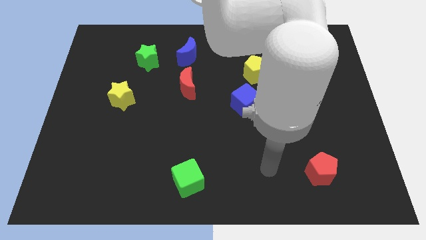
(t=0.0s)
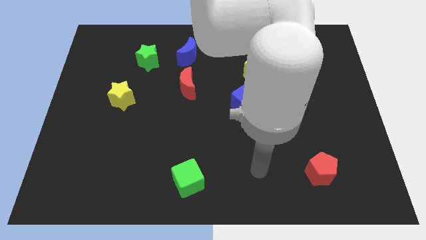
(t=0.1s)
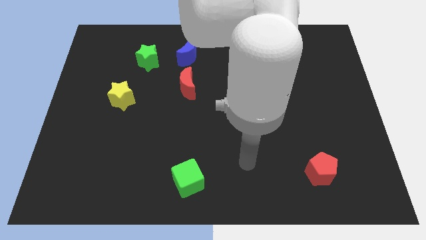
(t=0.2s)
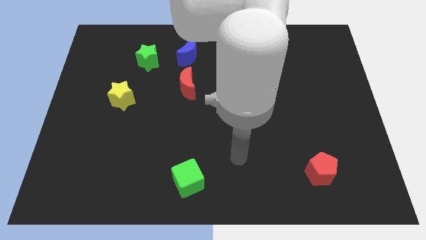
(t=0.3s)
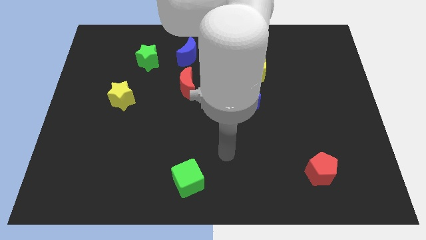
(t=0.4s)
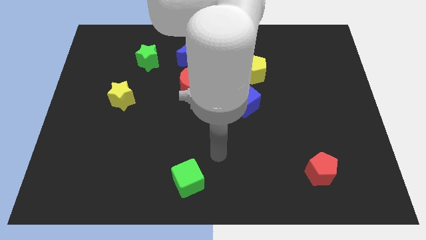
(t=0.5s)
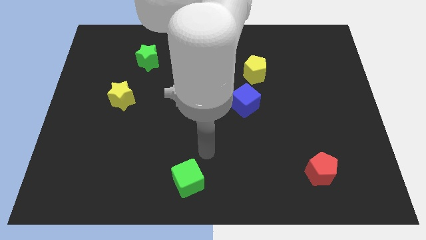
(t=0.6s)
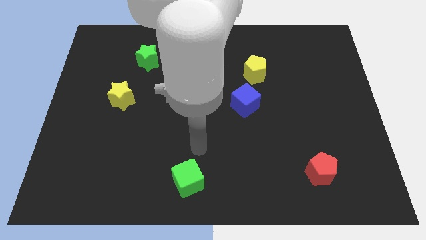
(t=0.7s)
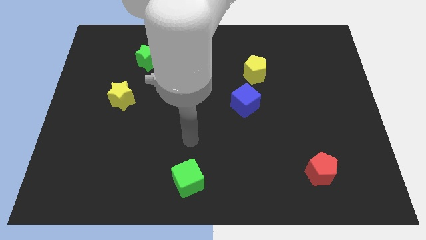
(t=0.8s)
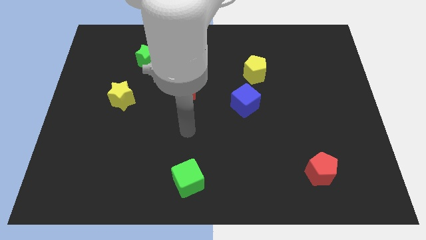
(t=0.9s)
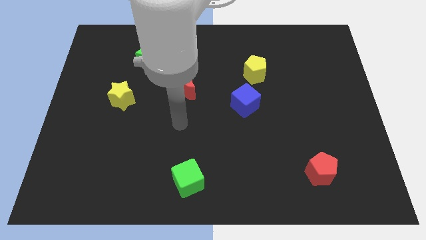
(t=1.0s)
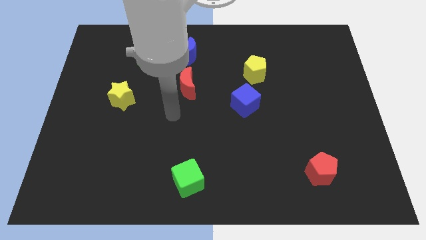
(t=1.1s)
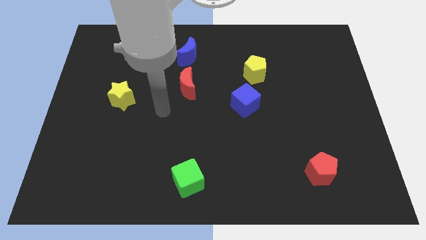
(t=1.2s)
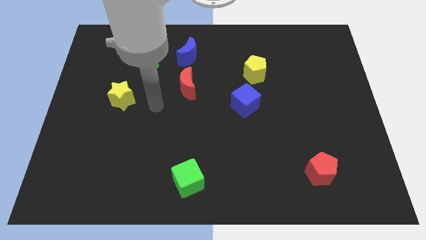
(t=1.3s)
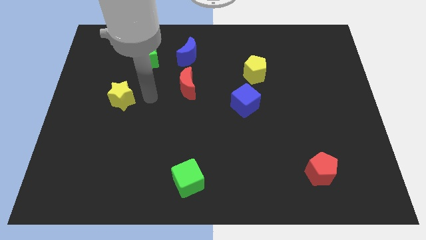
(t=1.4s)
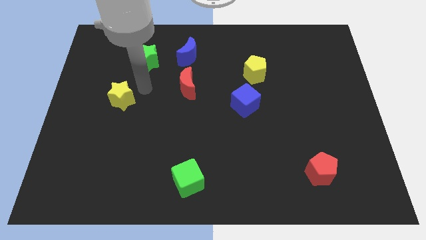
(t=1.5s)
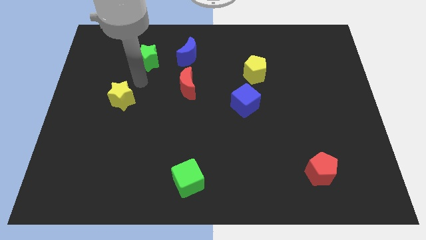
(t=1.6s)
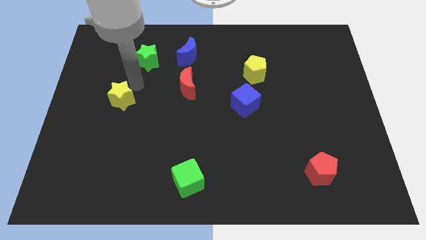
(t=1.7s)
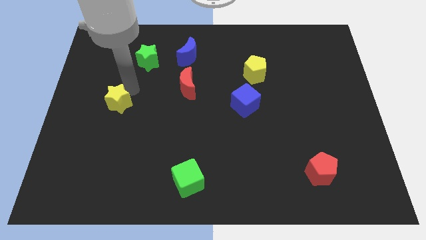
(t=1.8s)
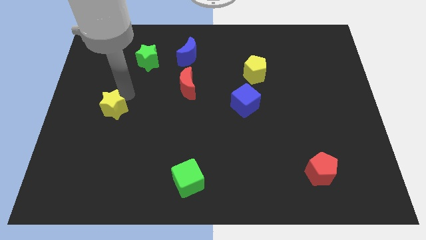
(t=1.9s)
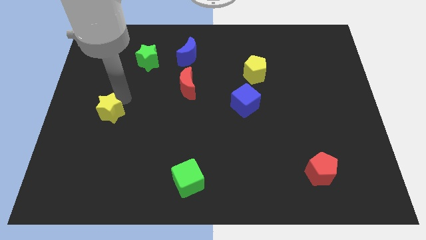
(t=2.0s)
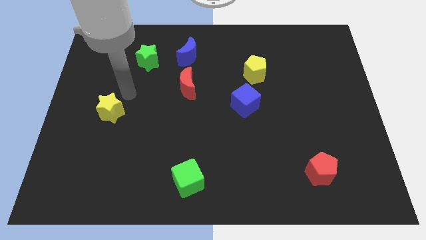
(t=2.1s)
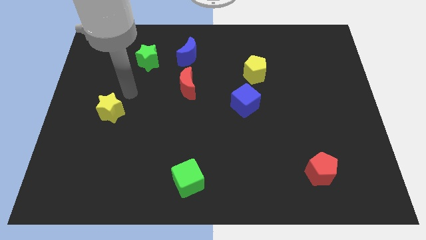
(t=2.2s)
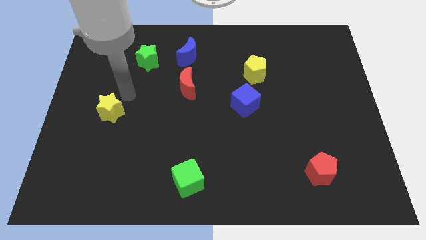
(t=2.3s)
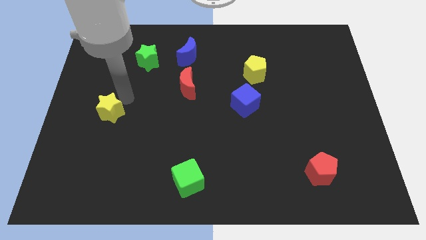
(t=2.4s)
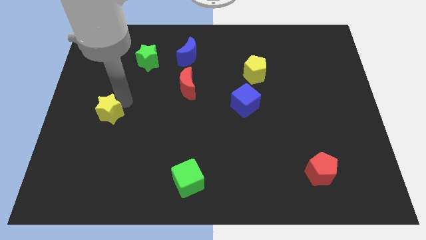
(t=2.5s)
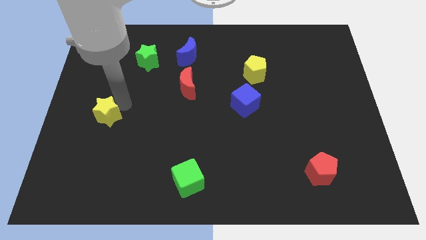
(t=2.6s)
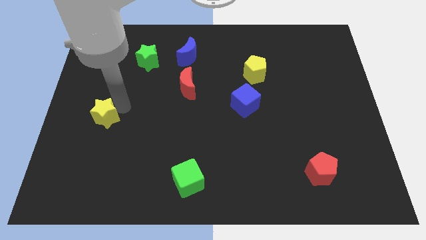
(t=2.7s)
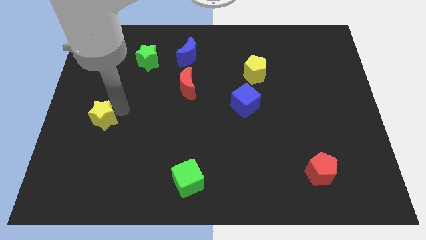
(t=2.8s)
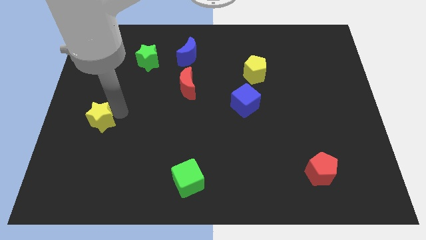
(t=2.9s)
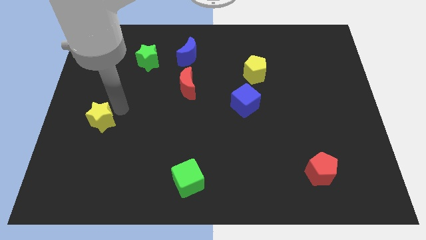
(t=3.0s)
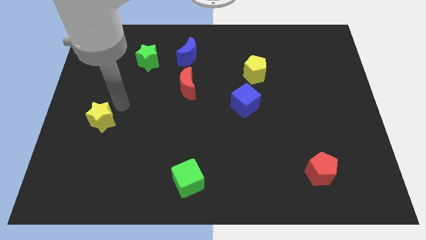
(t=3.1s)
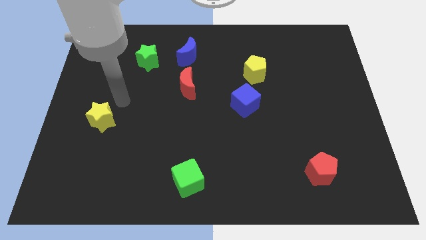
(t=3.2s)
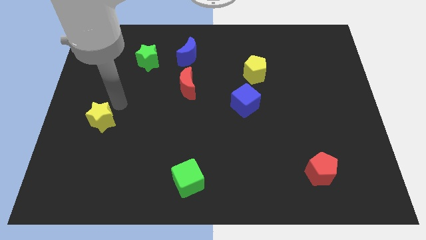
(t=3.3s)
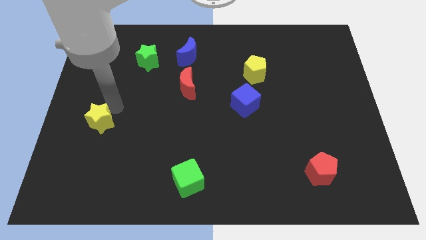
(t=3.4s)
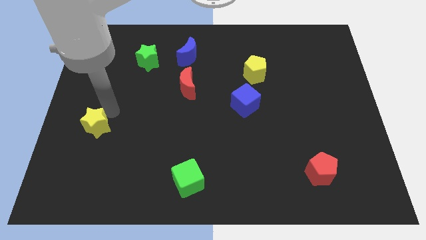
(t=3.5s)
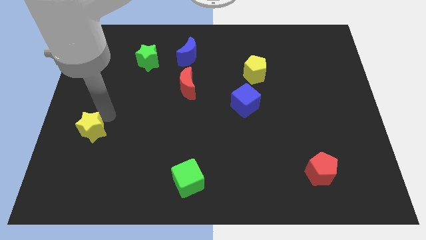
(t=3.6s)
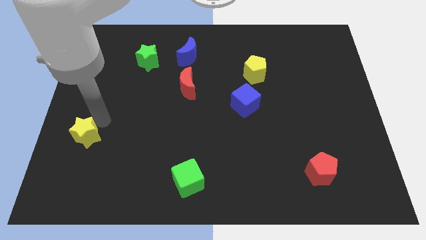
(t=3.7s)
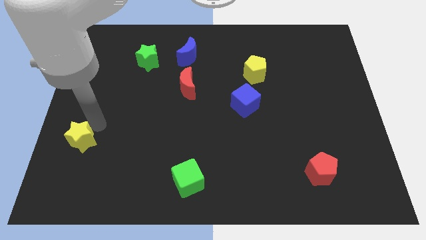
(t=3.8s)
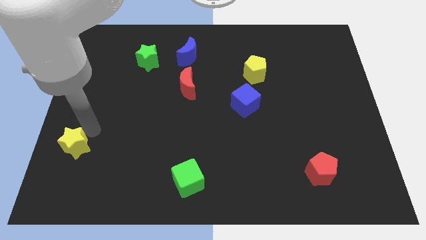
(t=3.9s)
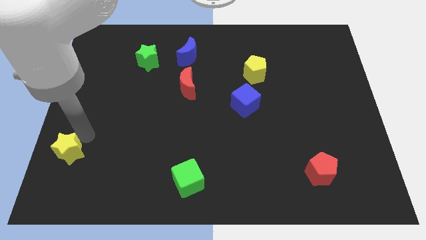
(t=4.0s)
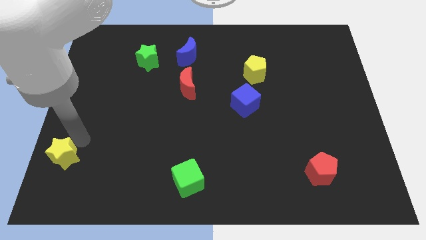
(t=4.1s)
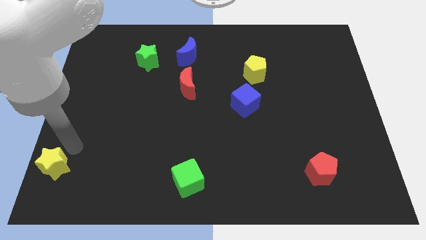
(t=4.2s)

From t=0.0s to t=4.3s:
slide the yellow star to the bottom left

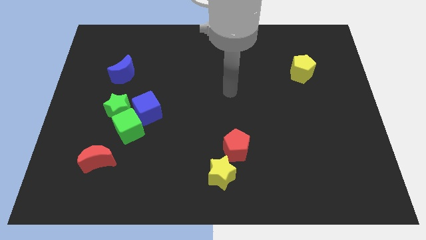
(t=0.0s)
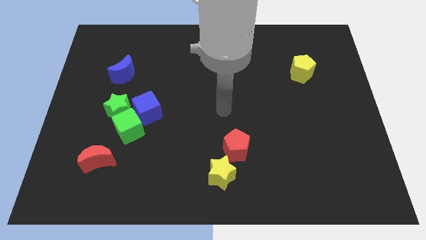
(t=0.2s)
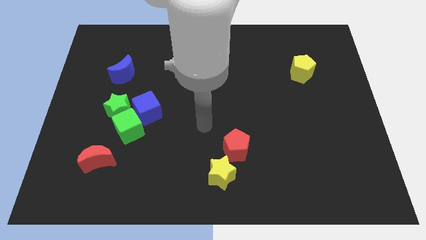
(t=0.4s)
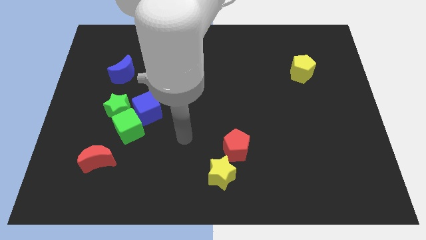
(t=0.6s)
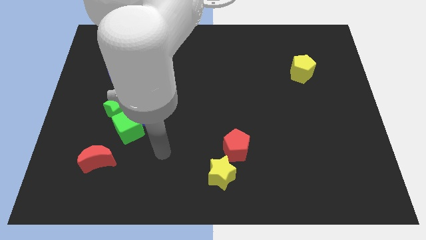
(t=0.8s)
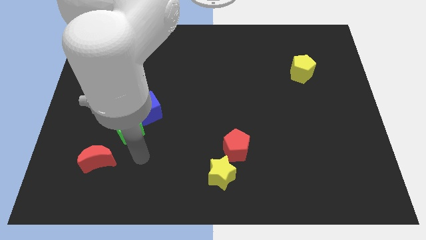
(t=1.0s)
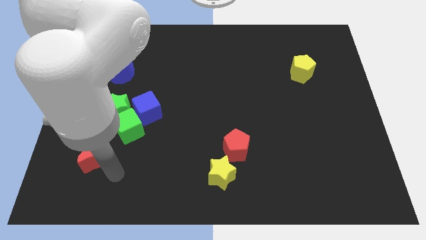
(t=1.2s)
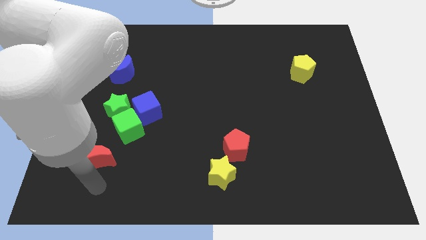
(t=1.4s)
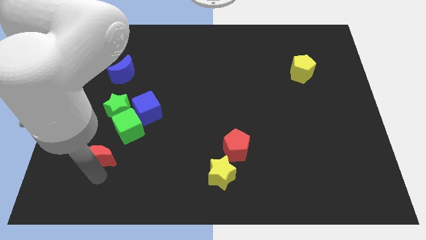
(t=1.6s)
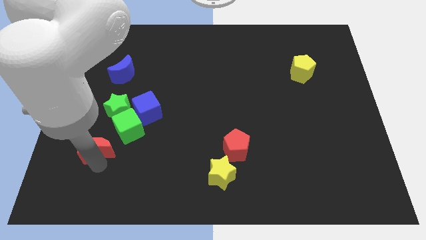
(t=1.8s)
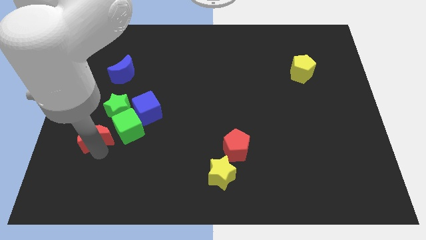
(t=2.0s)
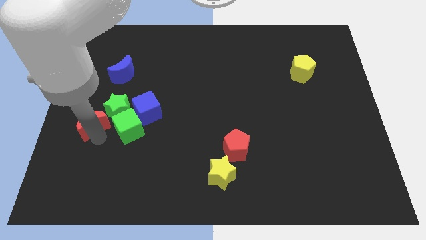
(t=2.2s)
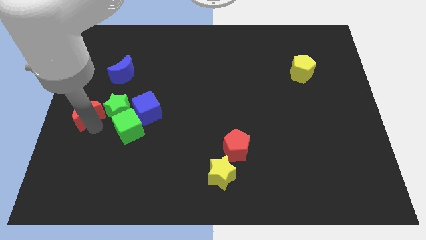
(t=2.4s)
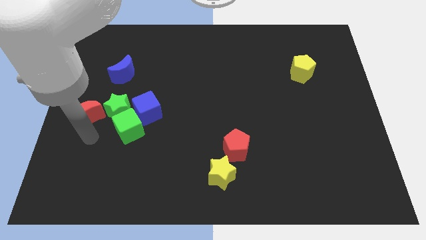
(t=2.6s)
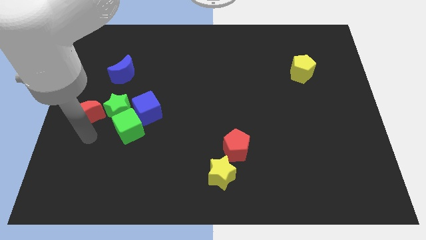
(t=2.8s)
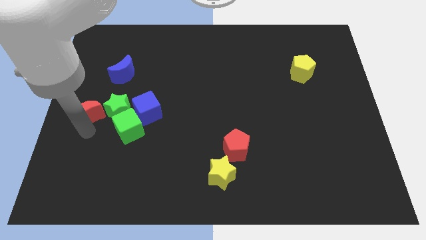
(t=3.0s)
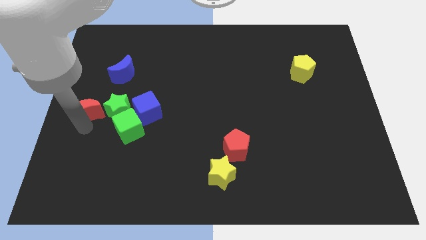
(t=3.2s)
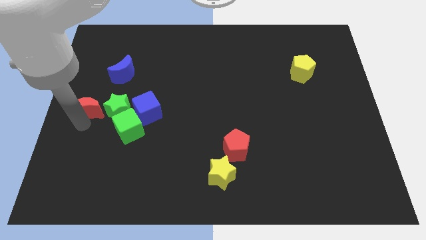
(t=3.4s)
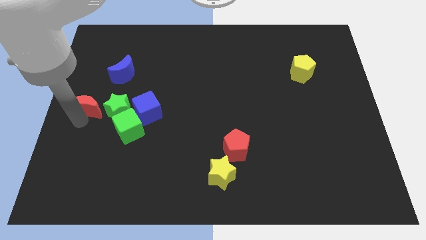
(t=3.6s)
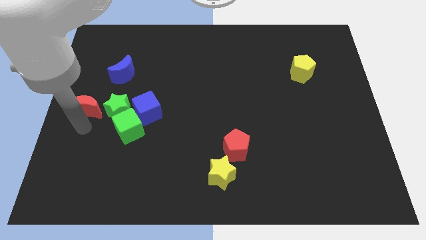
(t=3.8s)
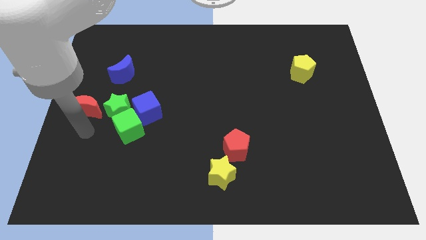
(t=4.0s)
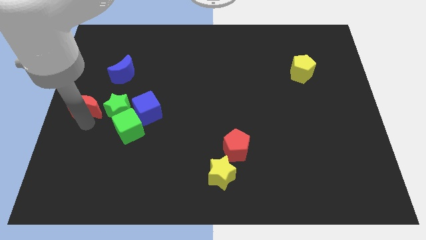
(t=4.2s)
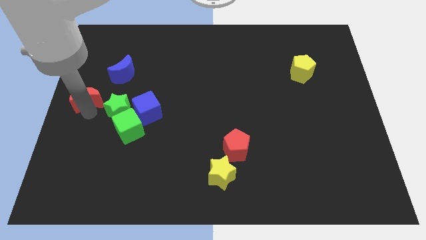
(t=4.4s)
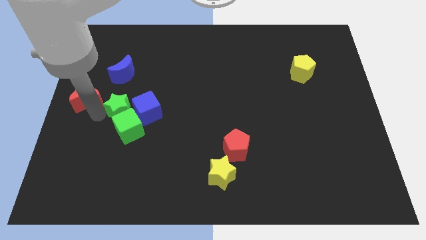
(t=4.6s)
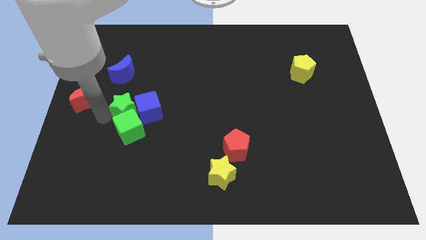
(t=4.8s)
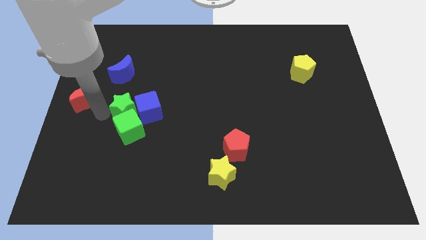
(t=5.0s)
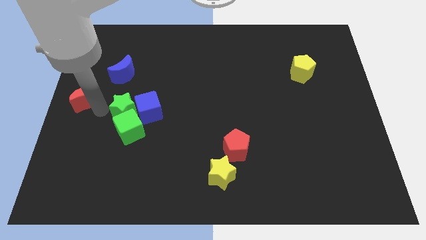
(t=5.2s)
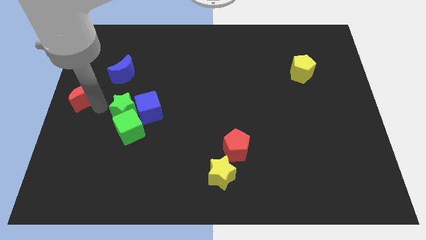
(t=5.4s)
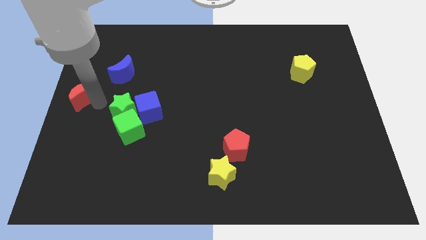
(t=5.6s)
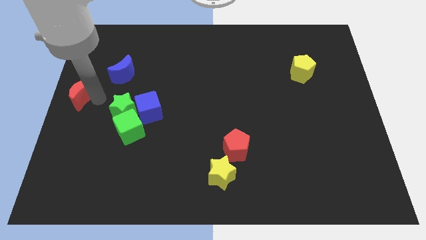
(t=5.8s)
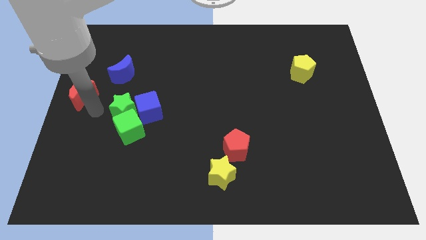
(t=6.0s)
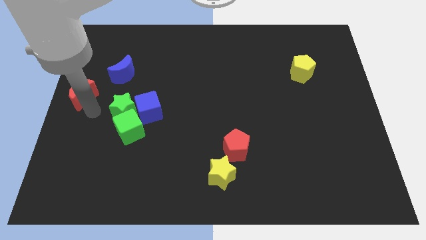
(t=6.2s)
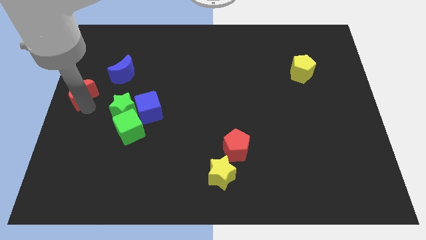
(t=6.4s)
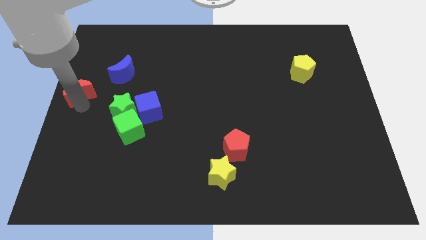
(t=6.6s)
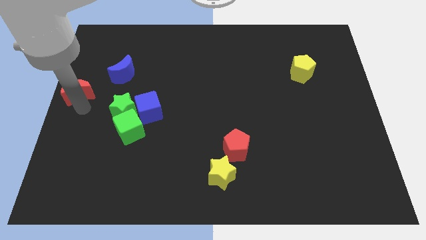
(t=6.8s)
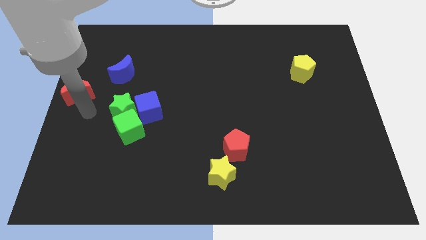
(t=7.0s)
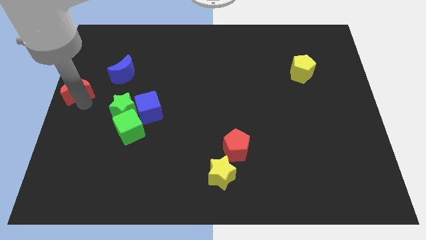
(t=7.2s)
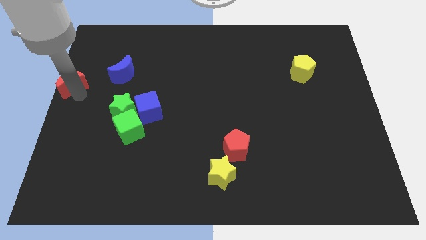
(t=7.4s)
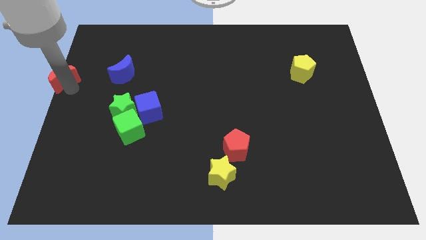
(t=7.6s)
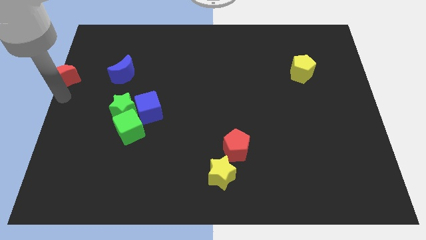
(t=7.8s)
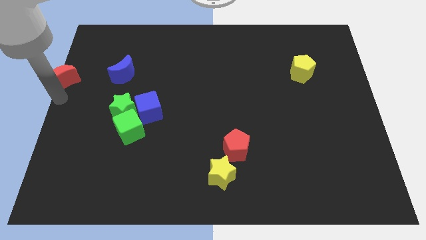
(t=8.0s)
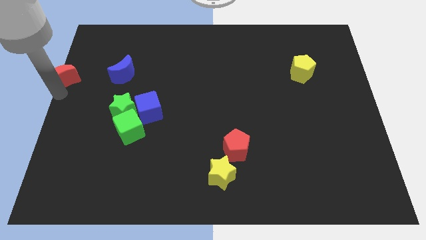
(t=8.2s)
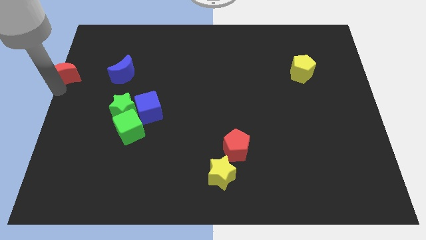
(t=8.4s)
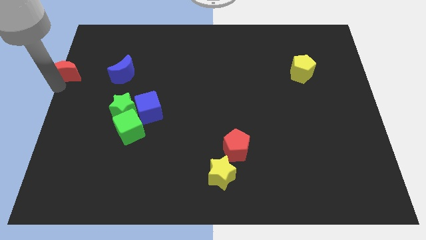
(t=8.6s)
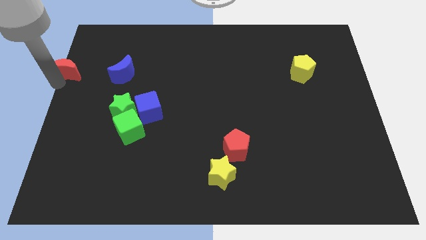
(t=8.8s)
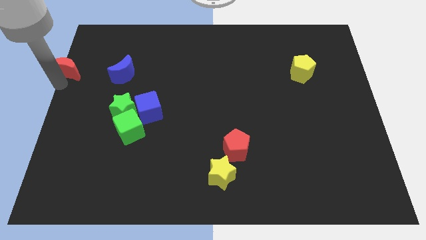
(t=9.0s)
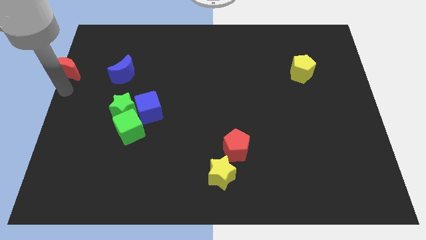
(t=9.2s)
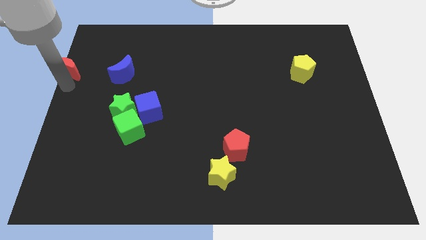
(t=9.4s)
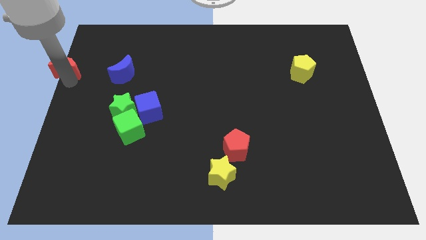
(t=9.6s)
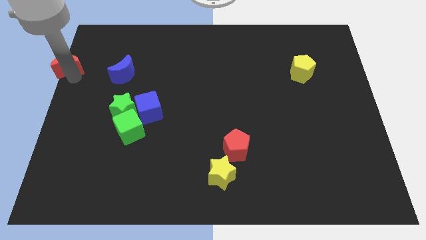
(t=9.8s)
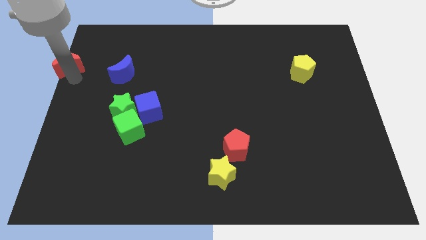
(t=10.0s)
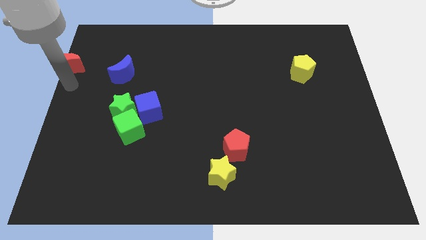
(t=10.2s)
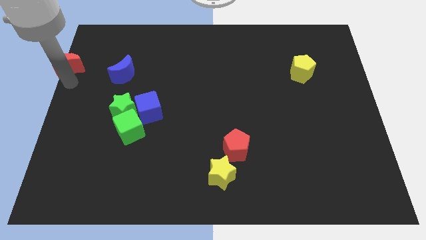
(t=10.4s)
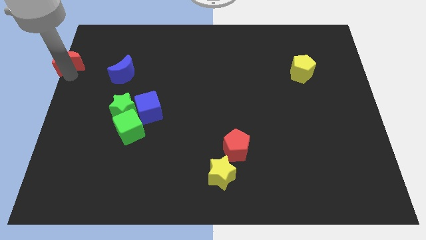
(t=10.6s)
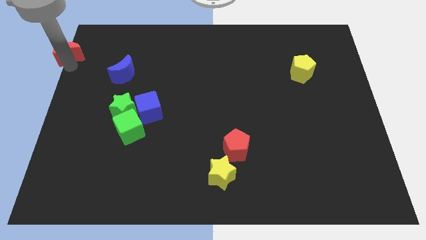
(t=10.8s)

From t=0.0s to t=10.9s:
put the red moon to the top left
